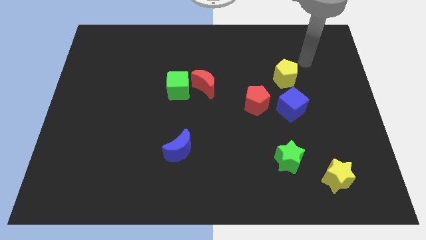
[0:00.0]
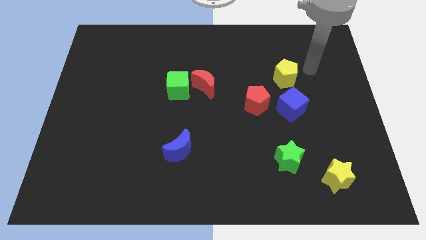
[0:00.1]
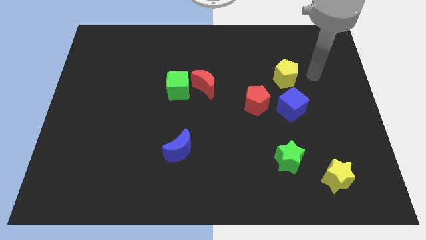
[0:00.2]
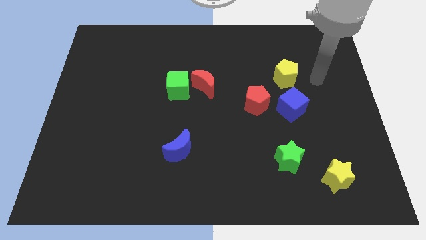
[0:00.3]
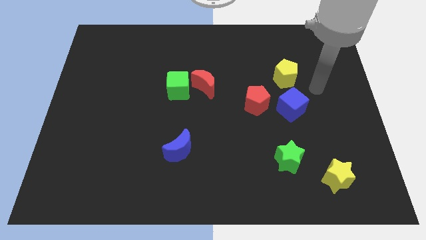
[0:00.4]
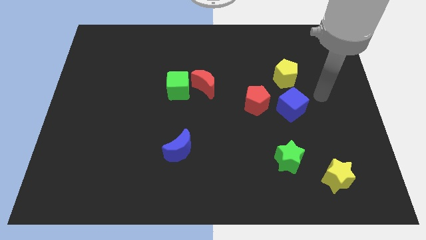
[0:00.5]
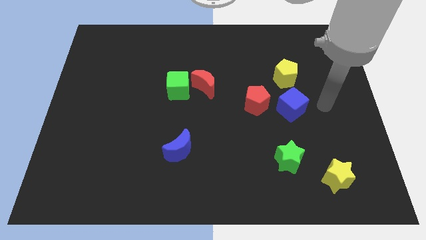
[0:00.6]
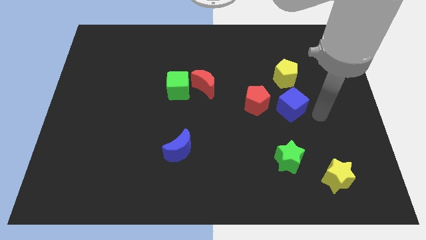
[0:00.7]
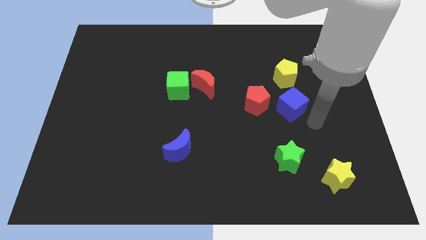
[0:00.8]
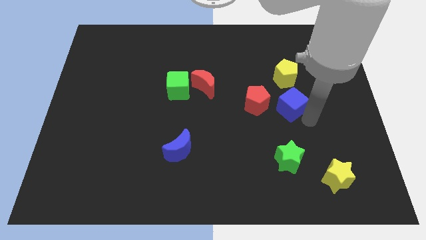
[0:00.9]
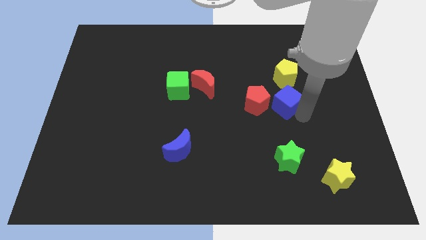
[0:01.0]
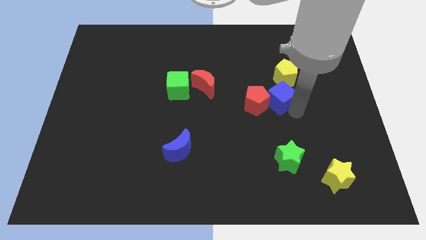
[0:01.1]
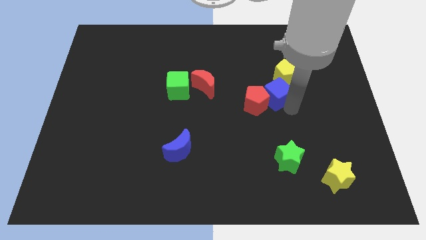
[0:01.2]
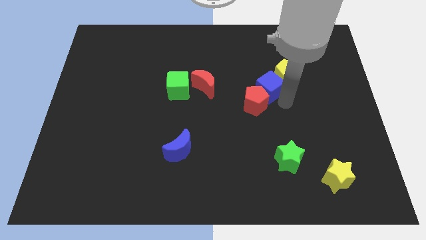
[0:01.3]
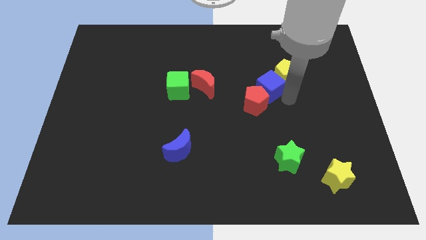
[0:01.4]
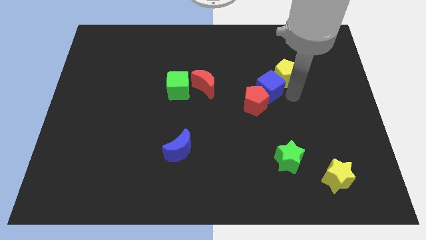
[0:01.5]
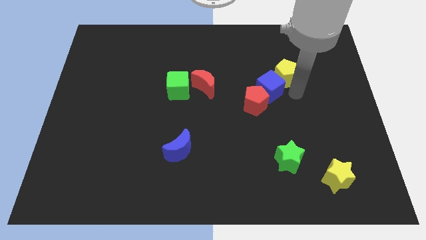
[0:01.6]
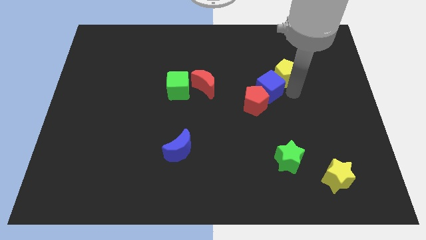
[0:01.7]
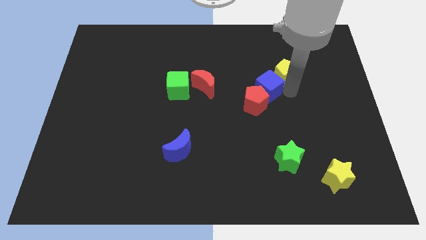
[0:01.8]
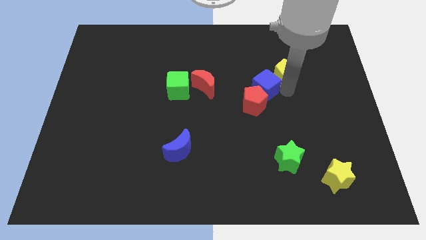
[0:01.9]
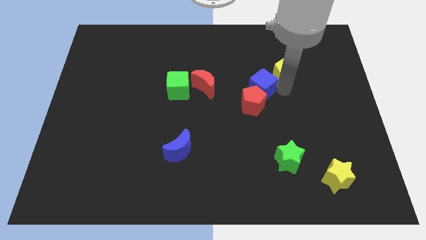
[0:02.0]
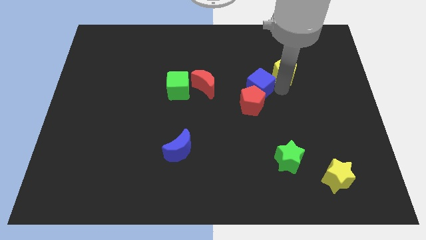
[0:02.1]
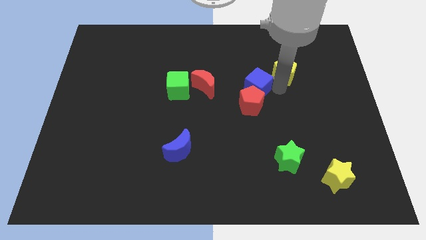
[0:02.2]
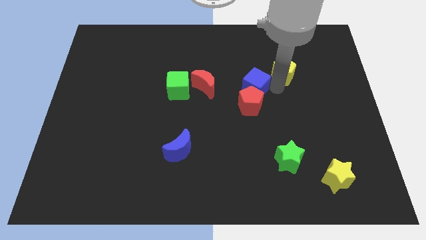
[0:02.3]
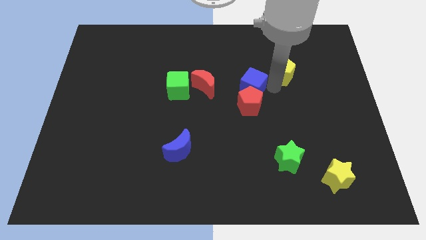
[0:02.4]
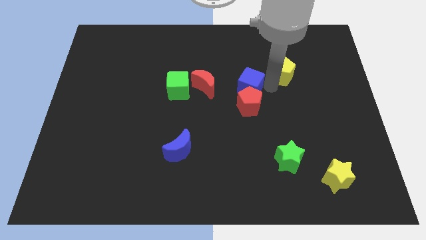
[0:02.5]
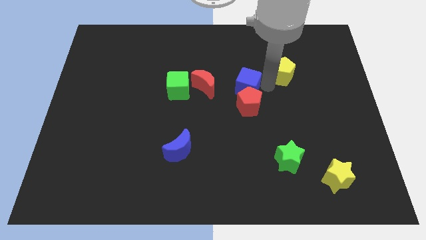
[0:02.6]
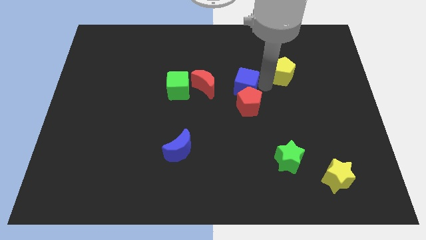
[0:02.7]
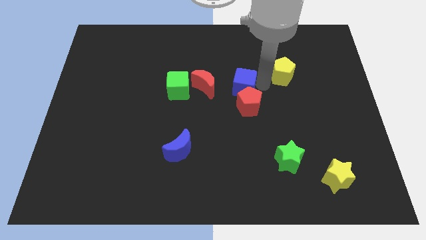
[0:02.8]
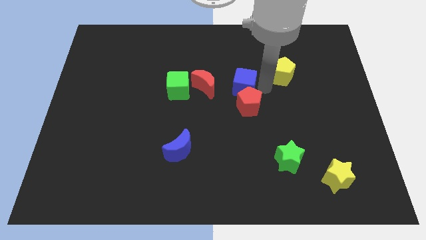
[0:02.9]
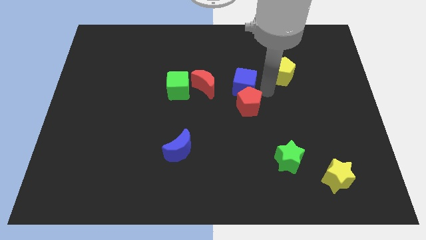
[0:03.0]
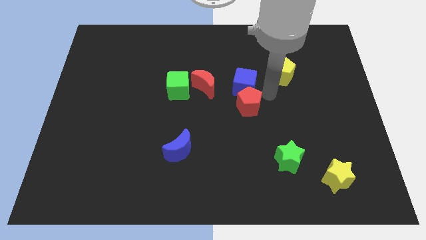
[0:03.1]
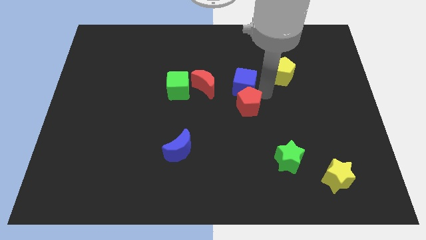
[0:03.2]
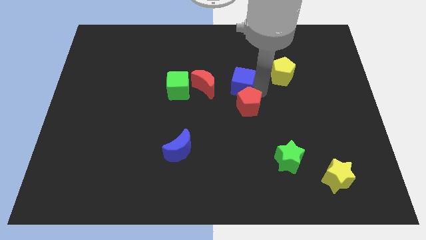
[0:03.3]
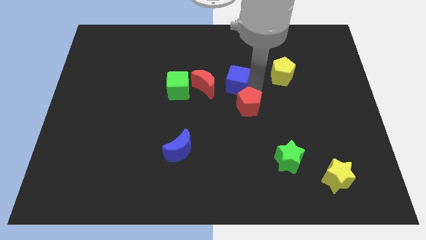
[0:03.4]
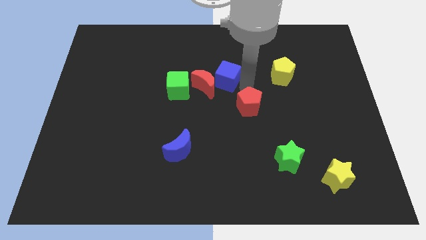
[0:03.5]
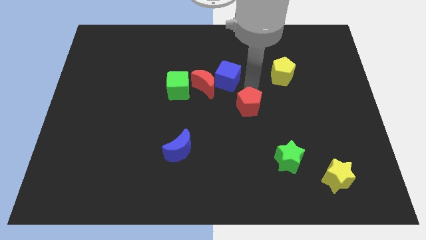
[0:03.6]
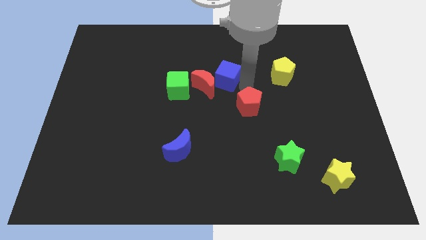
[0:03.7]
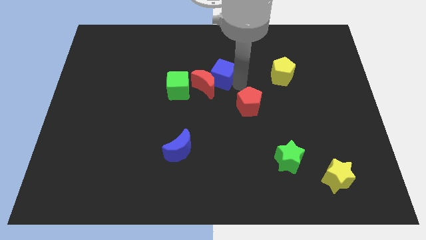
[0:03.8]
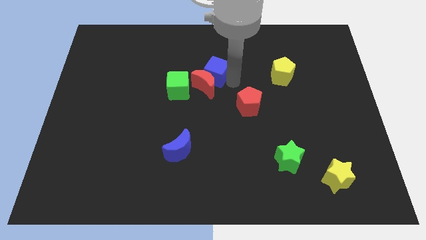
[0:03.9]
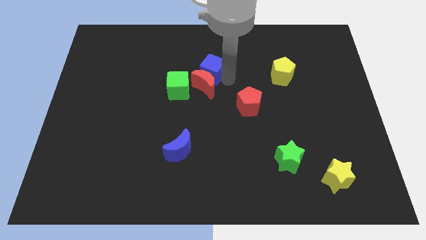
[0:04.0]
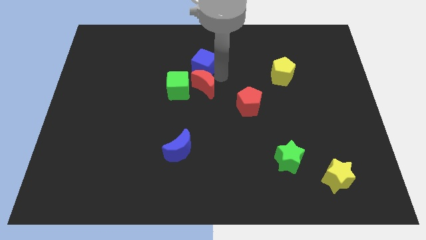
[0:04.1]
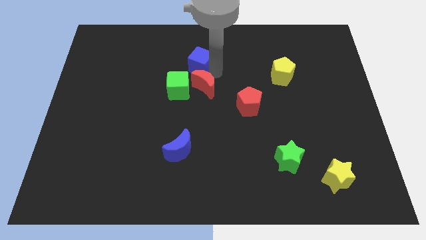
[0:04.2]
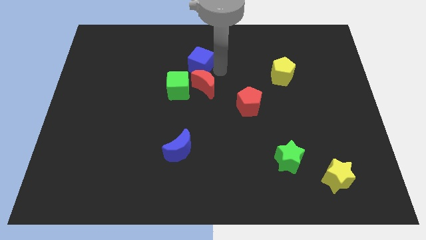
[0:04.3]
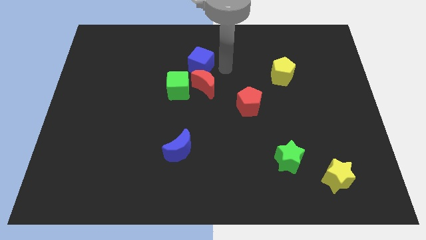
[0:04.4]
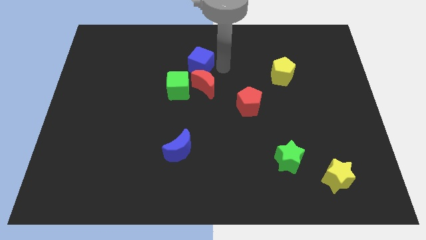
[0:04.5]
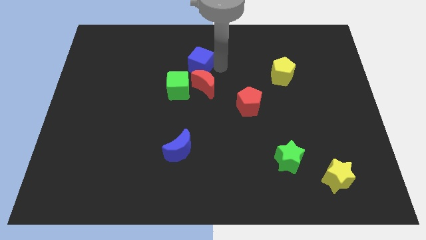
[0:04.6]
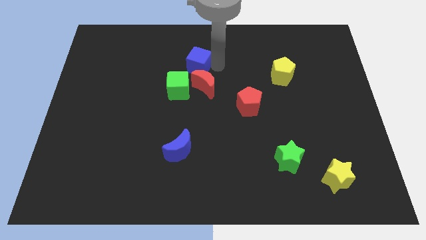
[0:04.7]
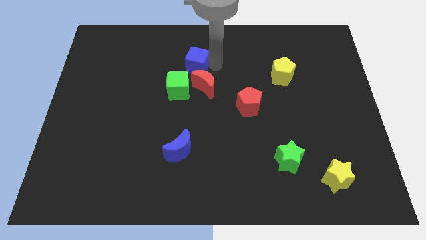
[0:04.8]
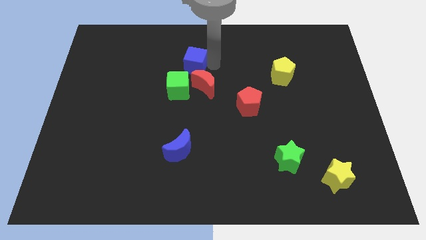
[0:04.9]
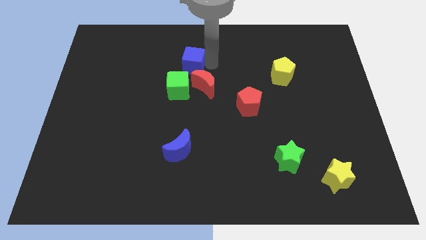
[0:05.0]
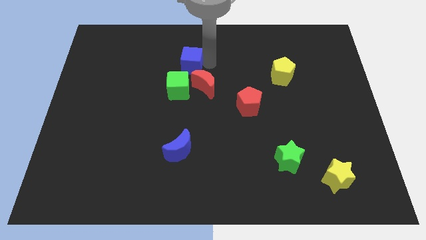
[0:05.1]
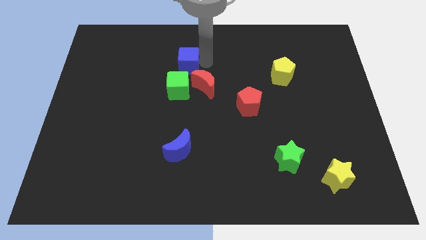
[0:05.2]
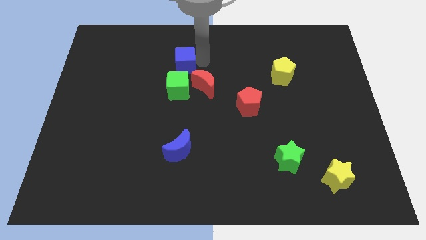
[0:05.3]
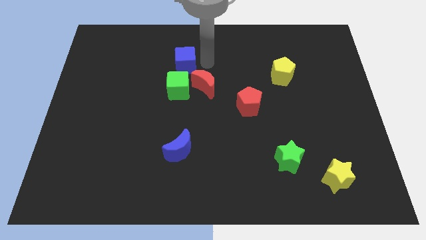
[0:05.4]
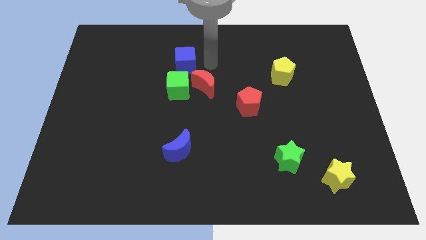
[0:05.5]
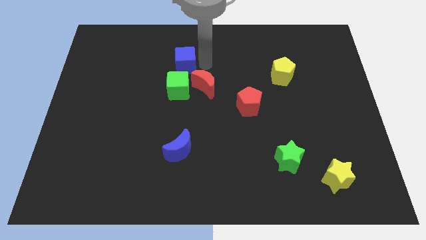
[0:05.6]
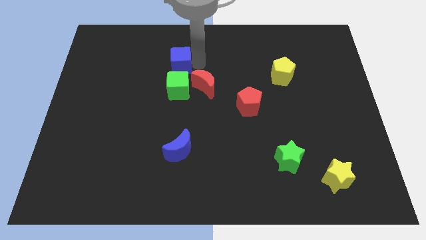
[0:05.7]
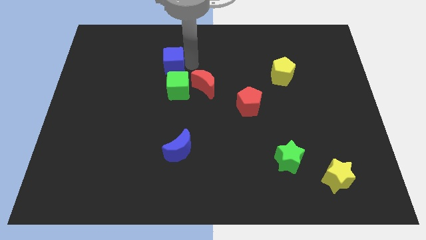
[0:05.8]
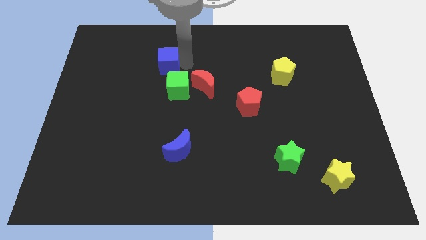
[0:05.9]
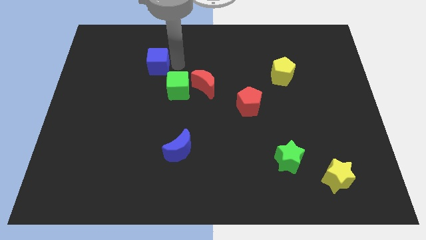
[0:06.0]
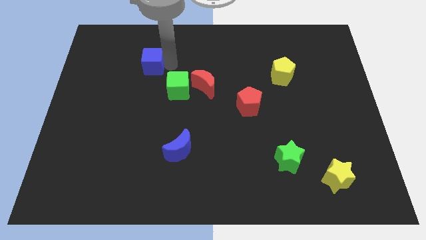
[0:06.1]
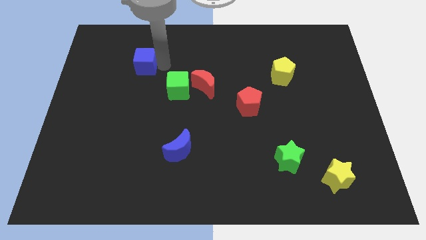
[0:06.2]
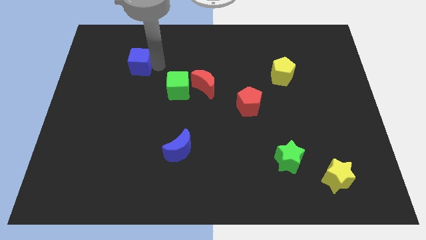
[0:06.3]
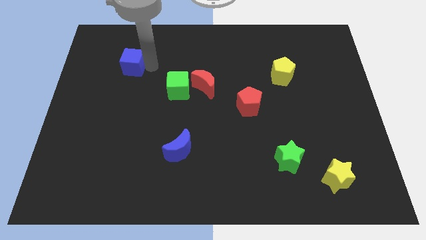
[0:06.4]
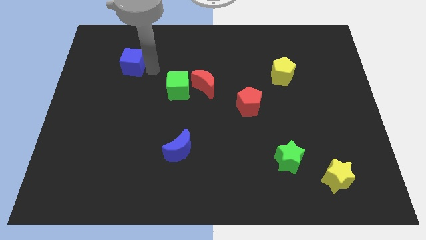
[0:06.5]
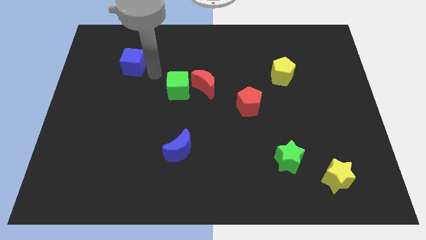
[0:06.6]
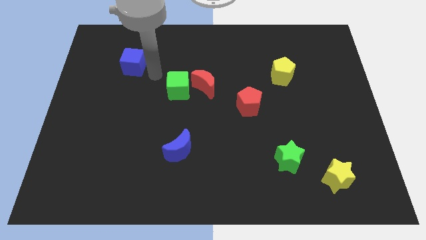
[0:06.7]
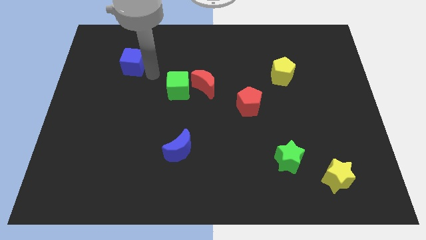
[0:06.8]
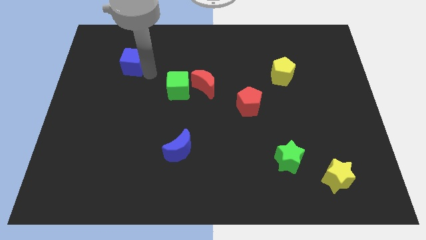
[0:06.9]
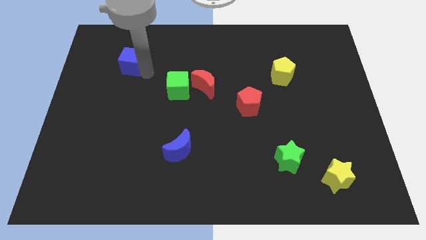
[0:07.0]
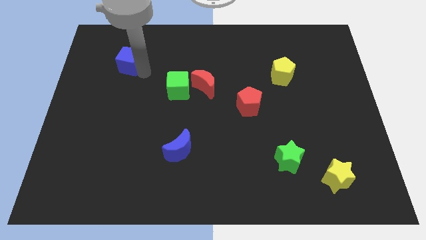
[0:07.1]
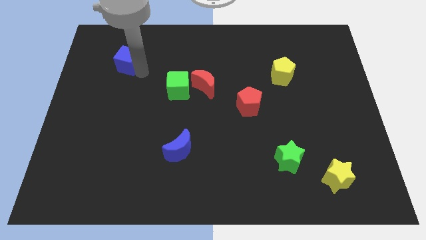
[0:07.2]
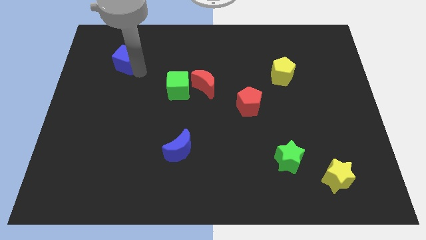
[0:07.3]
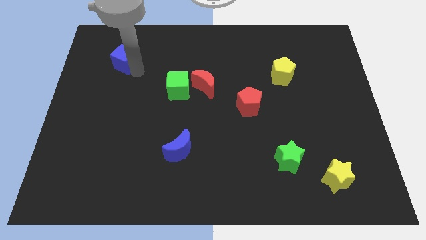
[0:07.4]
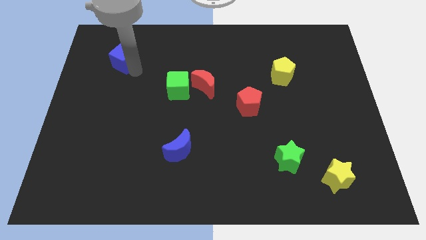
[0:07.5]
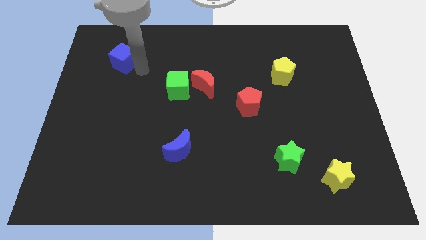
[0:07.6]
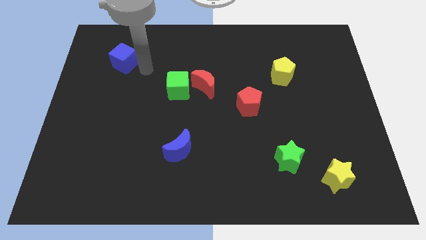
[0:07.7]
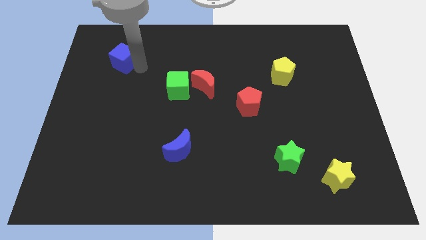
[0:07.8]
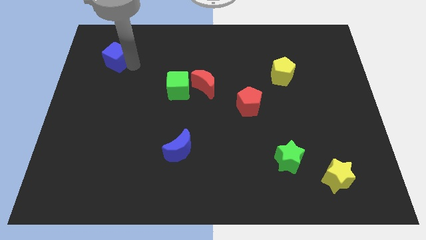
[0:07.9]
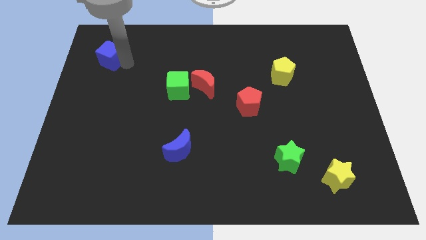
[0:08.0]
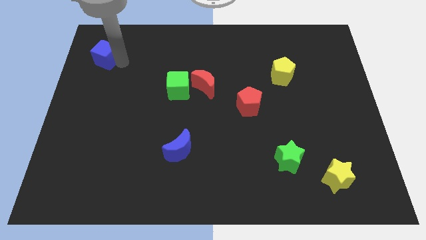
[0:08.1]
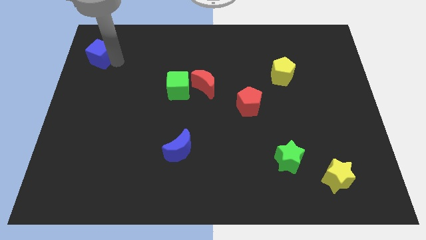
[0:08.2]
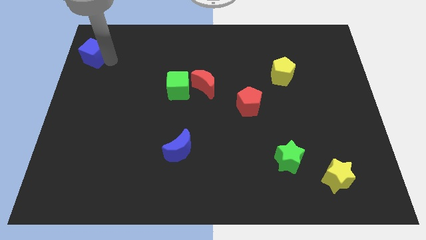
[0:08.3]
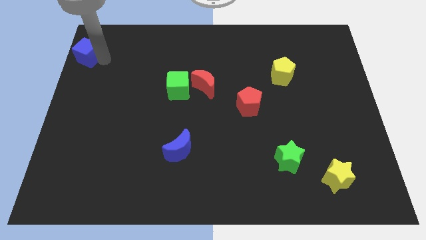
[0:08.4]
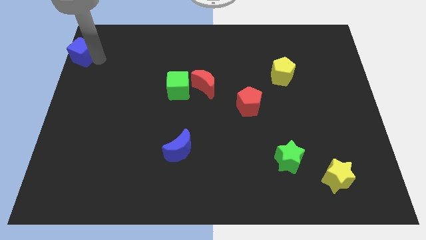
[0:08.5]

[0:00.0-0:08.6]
move the blue cube to the top left of the board
